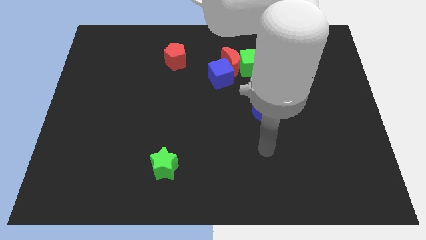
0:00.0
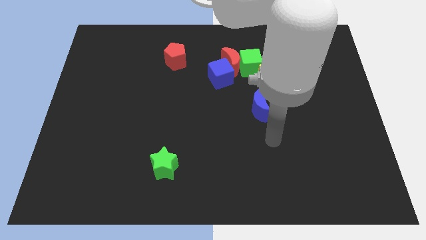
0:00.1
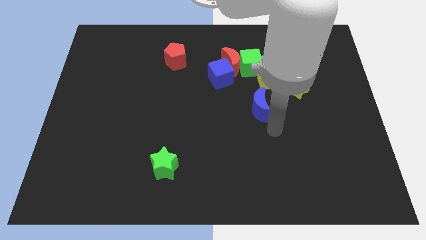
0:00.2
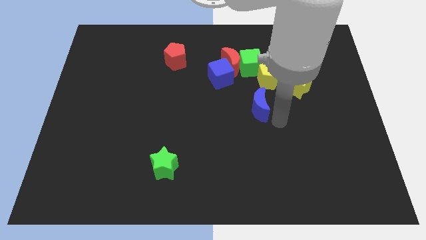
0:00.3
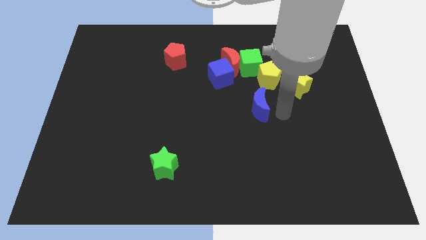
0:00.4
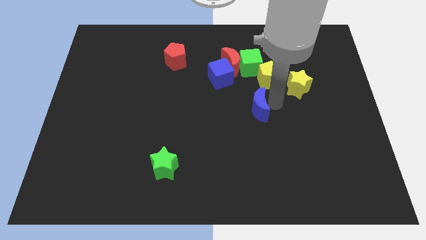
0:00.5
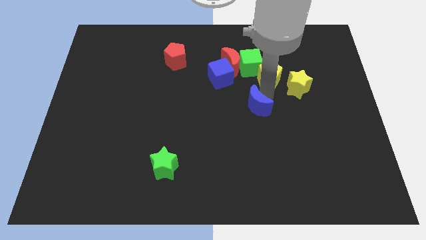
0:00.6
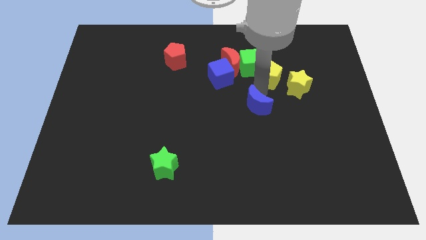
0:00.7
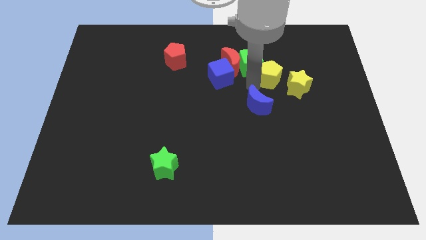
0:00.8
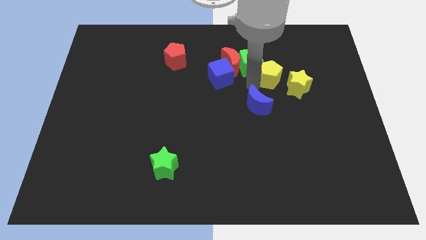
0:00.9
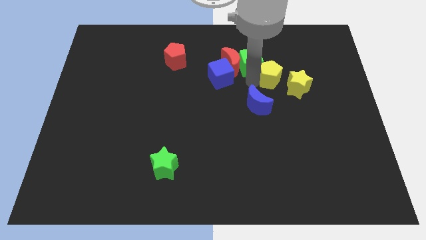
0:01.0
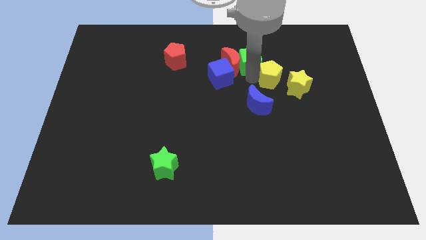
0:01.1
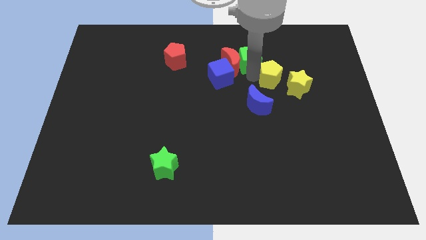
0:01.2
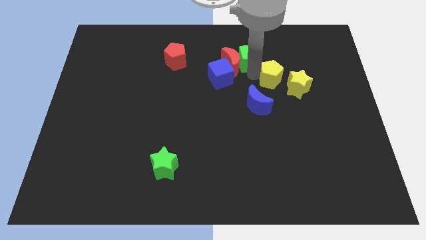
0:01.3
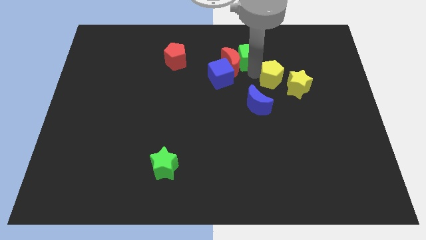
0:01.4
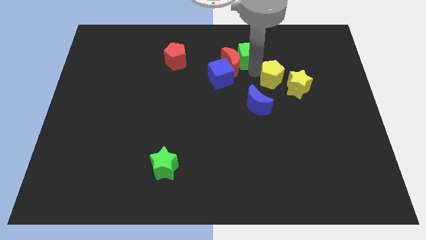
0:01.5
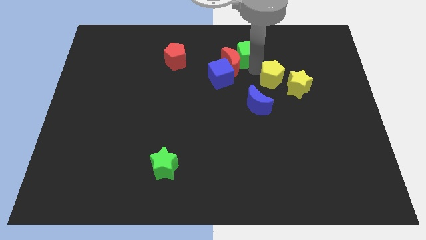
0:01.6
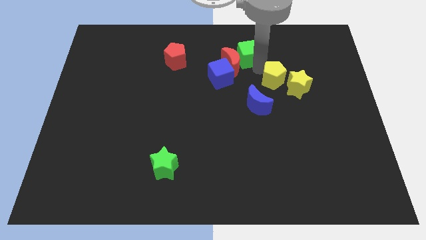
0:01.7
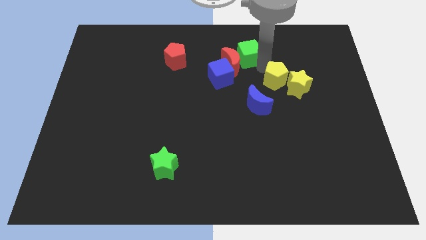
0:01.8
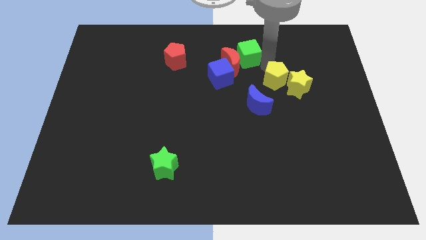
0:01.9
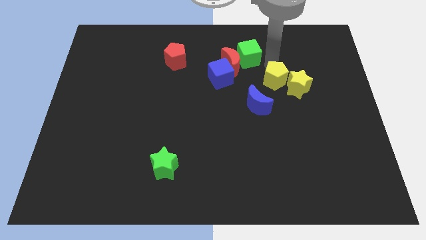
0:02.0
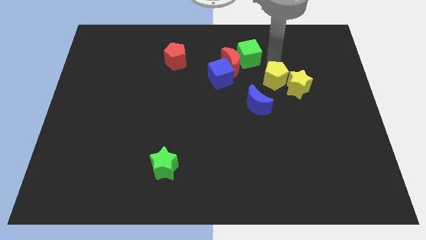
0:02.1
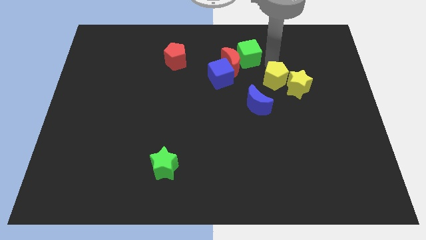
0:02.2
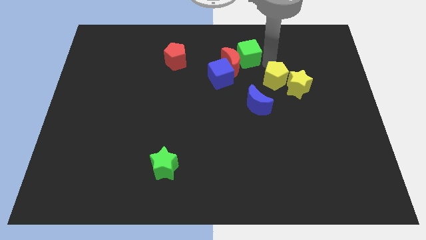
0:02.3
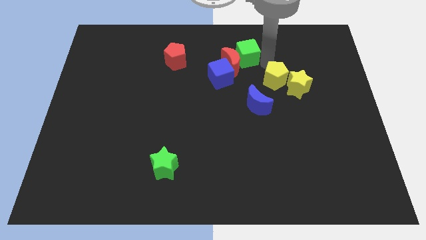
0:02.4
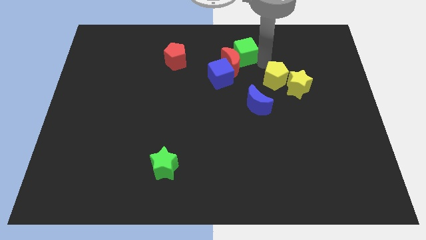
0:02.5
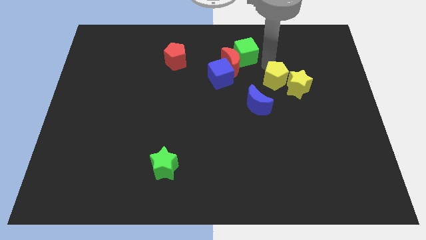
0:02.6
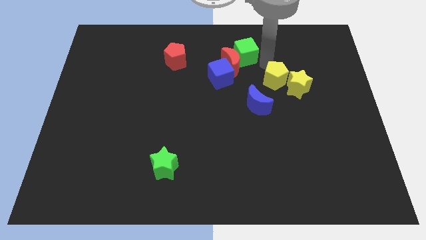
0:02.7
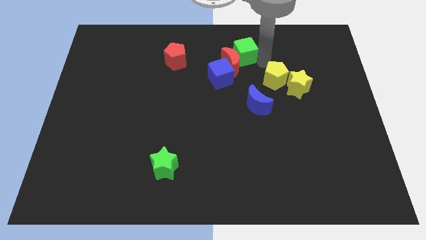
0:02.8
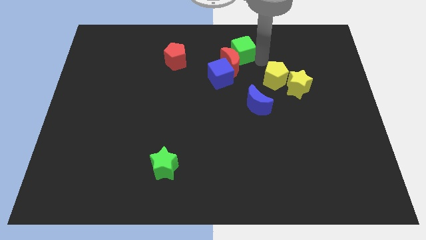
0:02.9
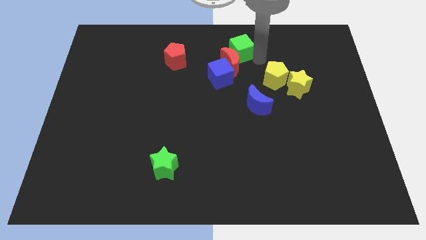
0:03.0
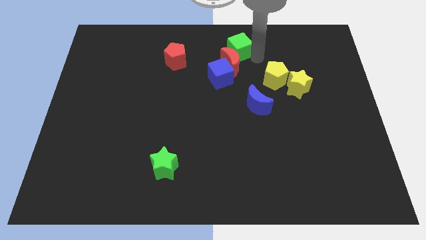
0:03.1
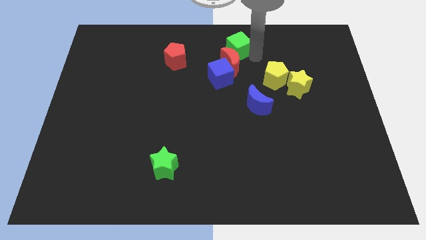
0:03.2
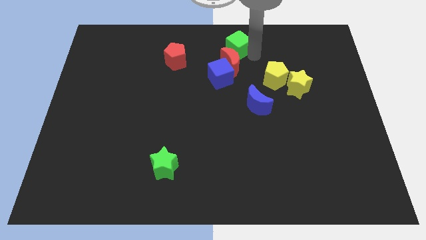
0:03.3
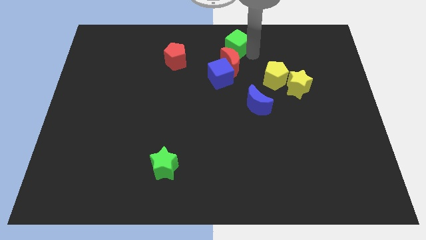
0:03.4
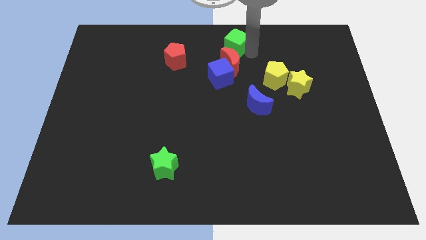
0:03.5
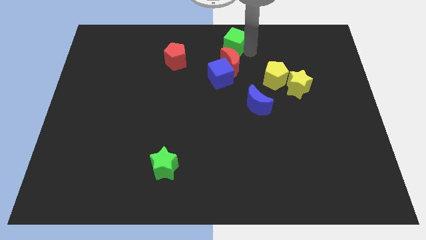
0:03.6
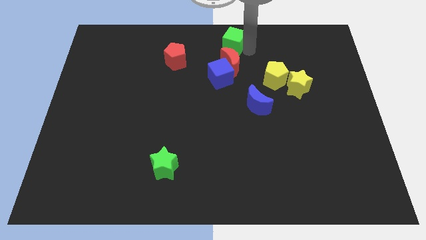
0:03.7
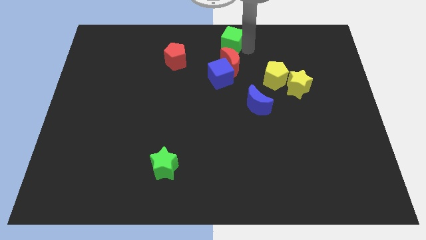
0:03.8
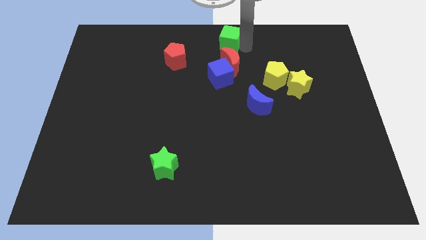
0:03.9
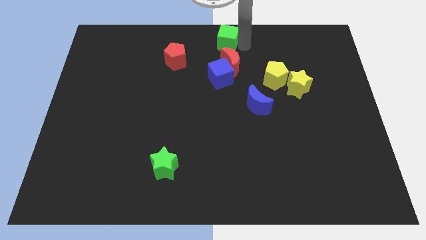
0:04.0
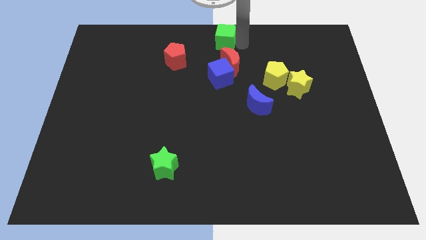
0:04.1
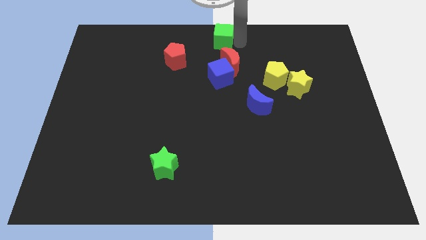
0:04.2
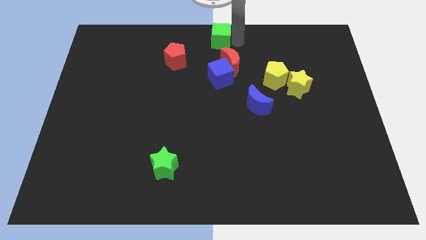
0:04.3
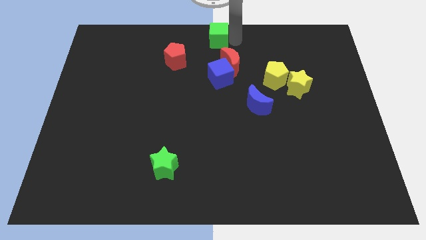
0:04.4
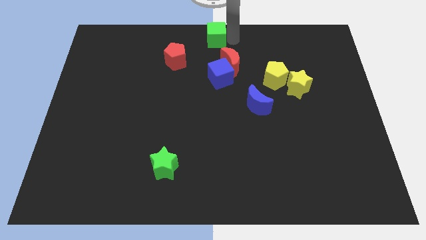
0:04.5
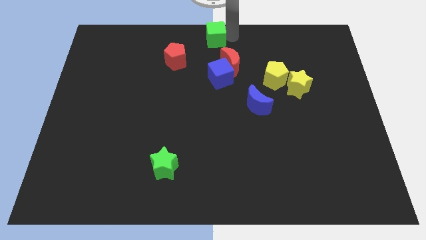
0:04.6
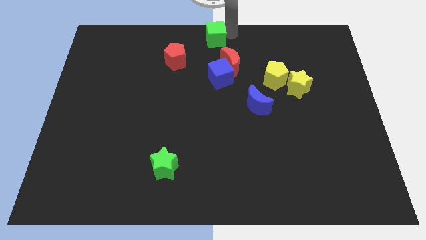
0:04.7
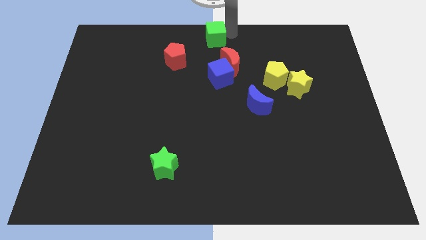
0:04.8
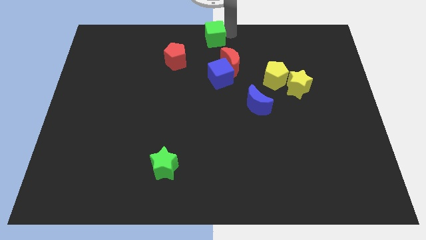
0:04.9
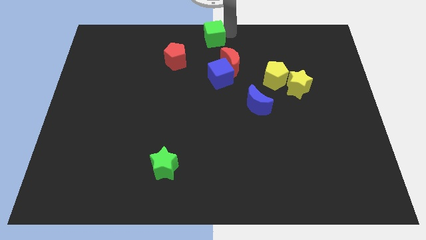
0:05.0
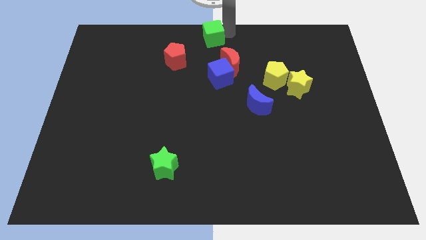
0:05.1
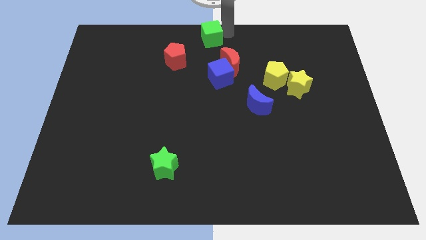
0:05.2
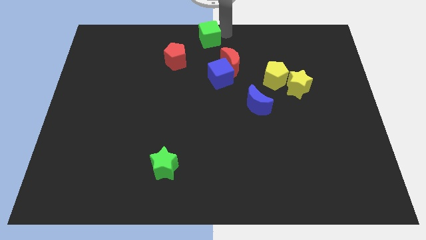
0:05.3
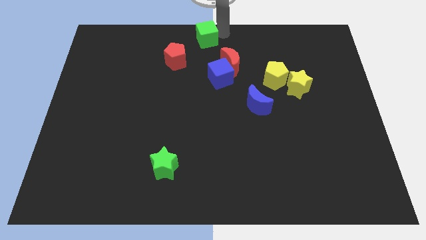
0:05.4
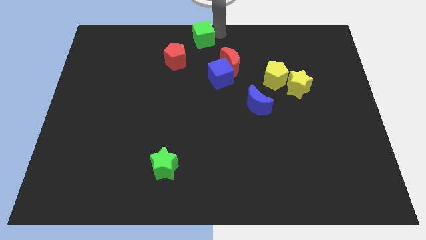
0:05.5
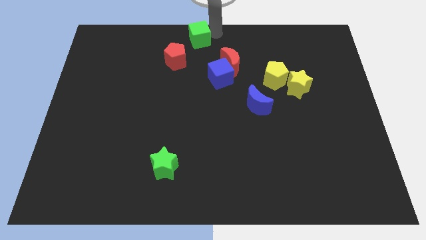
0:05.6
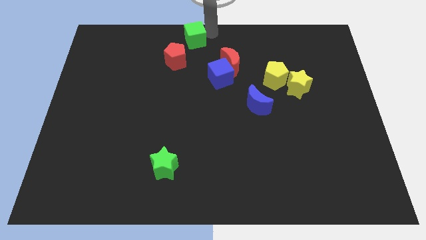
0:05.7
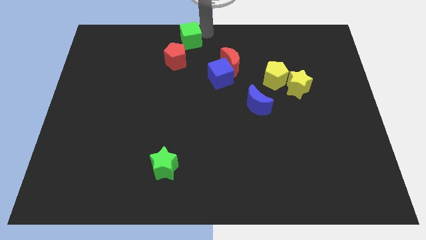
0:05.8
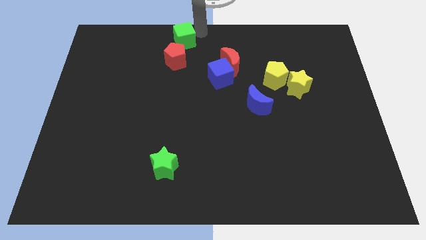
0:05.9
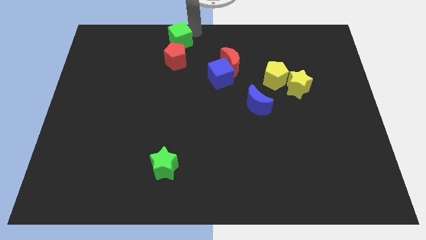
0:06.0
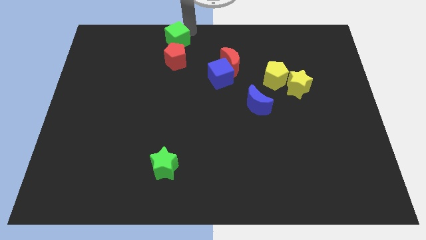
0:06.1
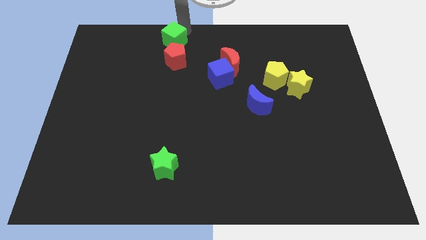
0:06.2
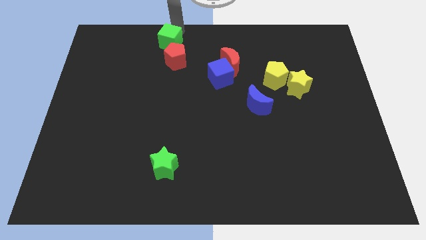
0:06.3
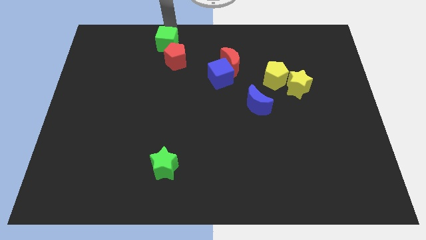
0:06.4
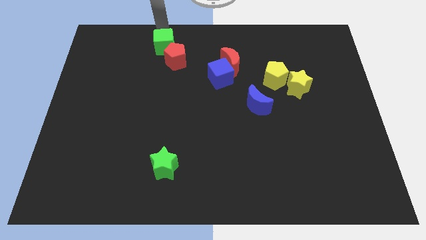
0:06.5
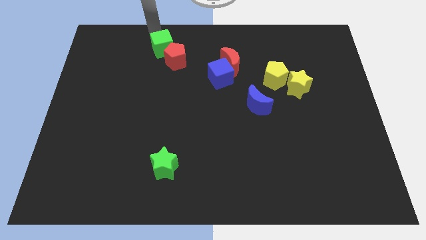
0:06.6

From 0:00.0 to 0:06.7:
put the green cube left of the red pentagon

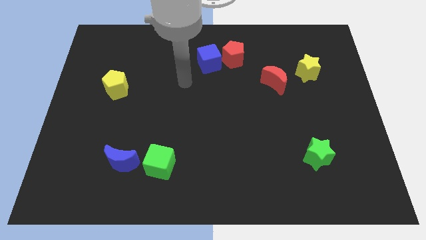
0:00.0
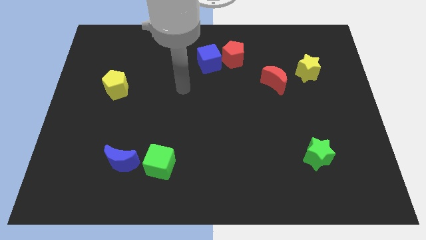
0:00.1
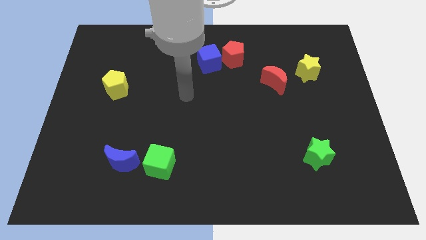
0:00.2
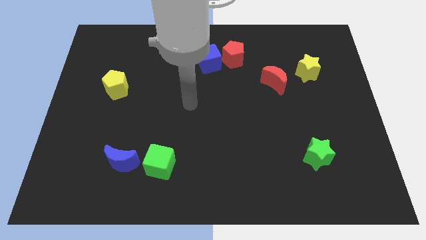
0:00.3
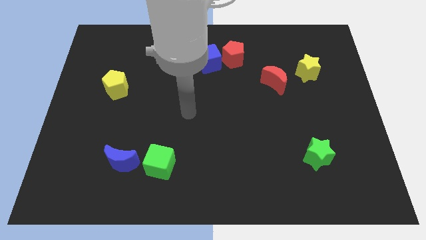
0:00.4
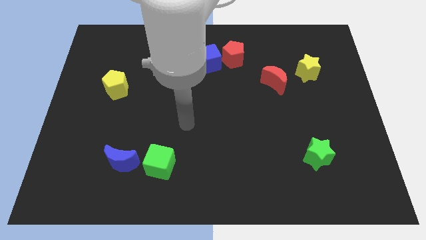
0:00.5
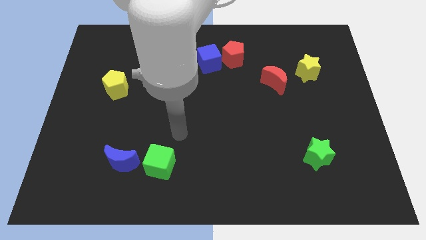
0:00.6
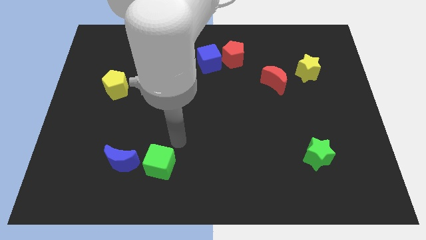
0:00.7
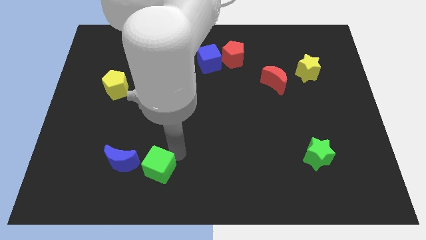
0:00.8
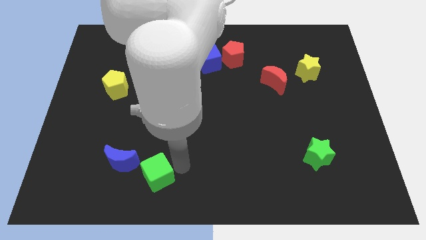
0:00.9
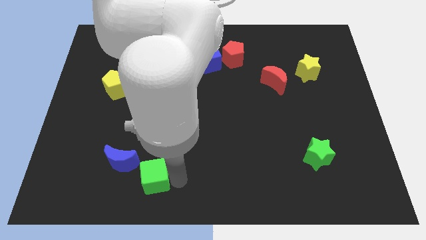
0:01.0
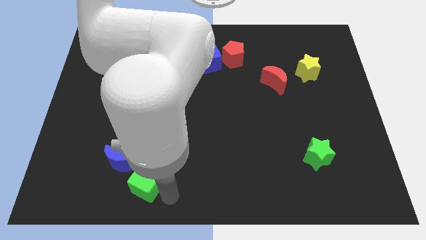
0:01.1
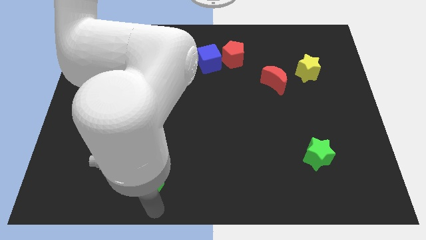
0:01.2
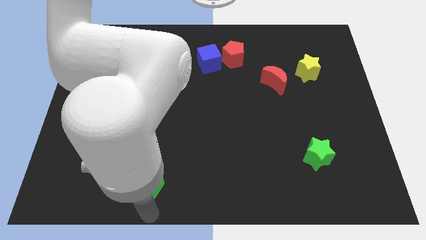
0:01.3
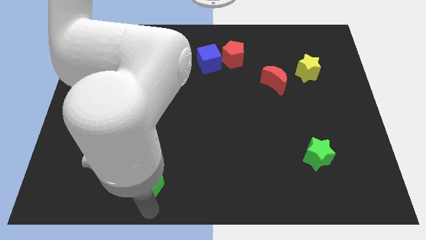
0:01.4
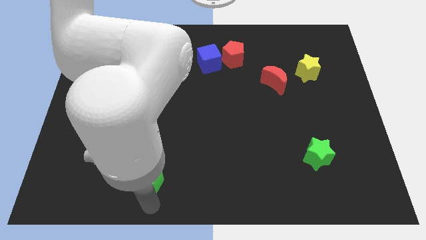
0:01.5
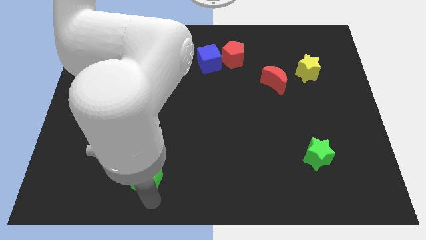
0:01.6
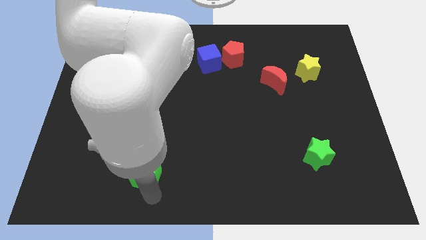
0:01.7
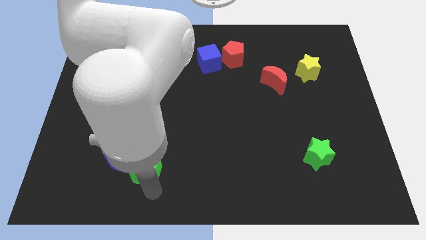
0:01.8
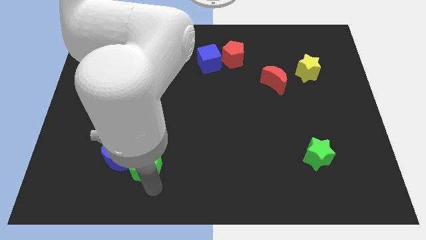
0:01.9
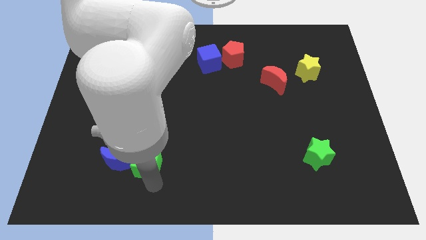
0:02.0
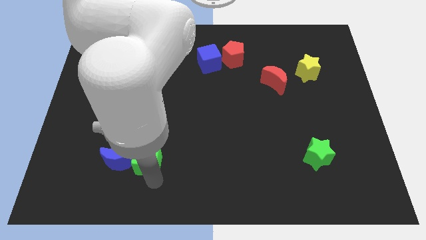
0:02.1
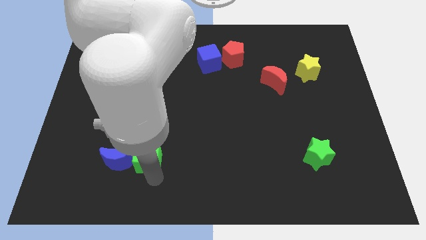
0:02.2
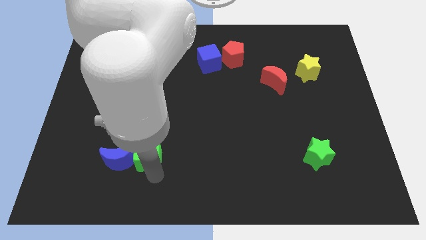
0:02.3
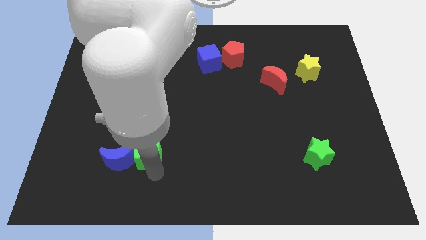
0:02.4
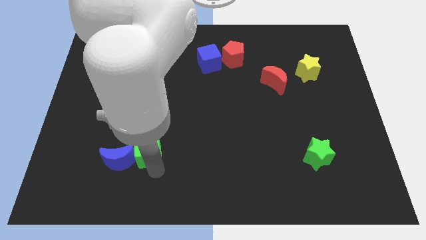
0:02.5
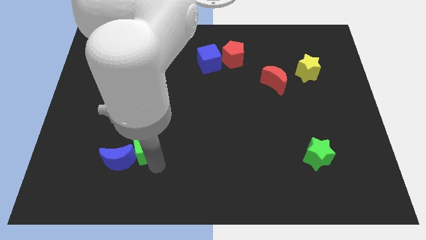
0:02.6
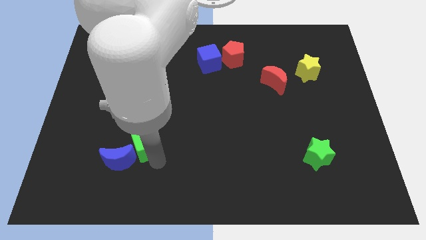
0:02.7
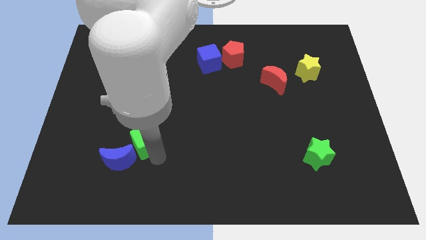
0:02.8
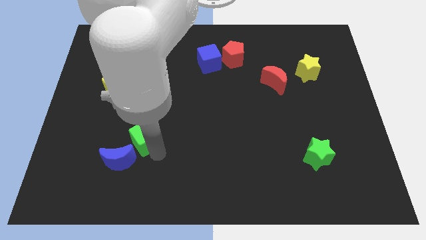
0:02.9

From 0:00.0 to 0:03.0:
put the green cube to the top side of the blue moon
